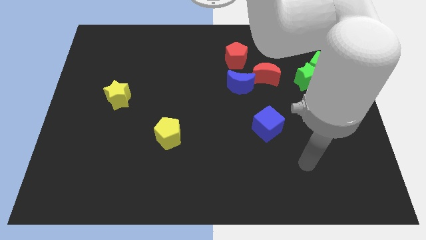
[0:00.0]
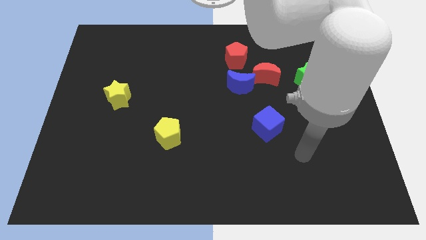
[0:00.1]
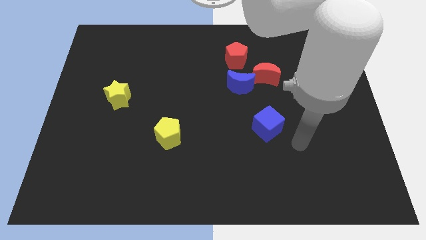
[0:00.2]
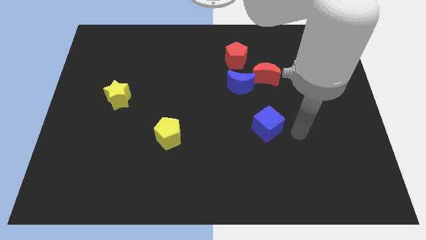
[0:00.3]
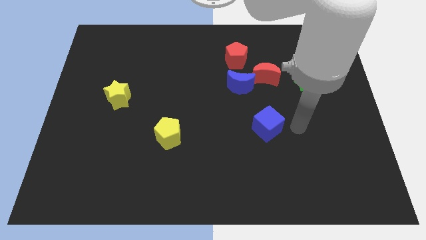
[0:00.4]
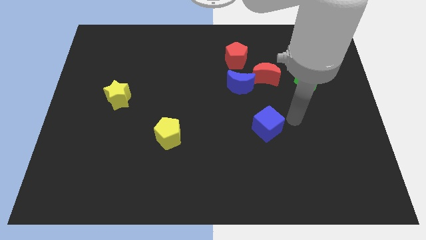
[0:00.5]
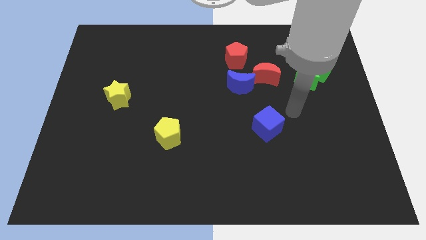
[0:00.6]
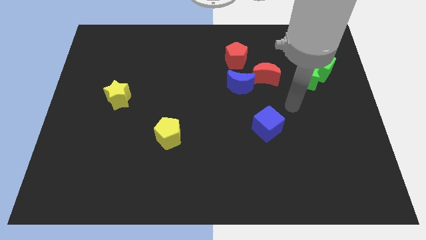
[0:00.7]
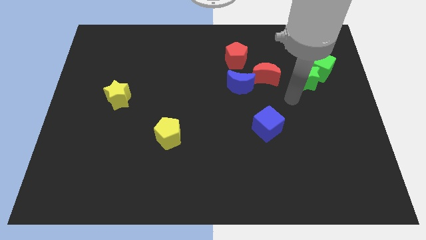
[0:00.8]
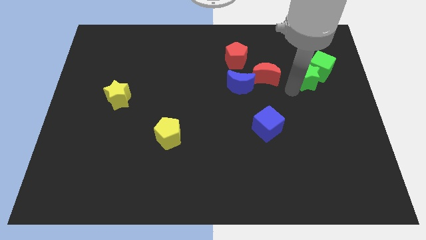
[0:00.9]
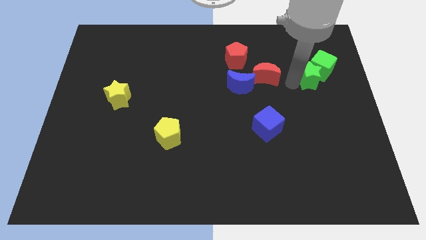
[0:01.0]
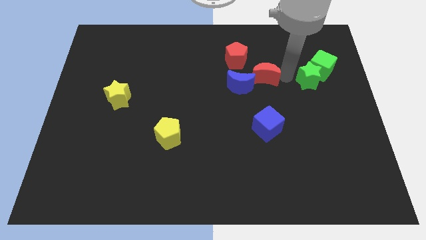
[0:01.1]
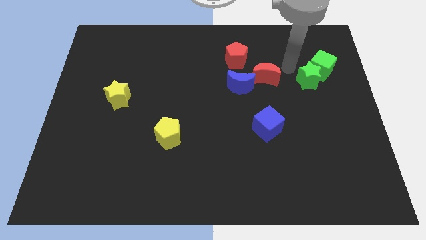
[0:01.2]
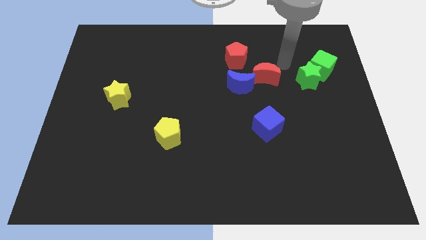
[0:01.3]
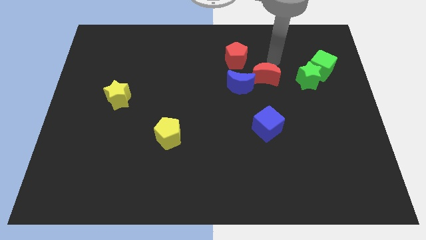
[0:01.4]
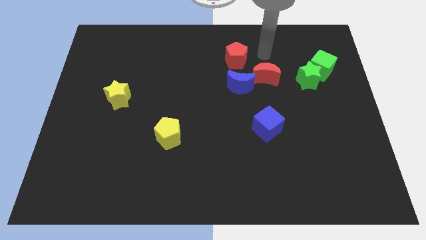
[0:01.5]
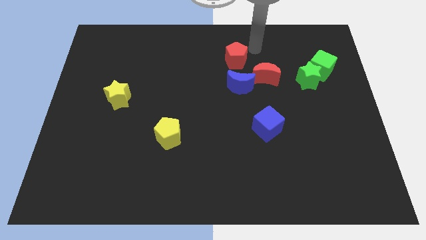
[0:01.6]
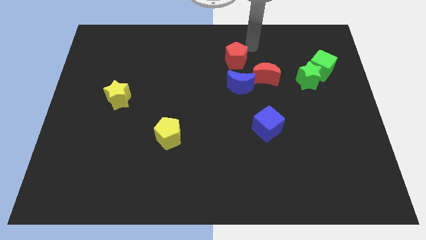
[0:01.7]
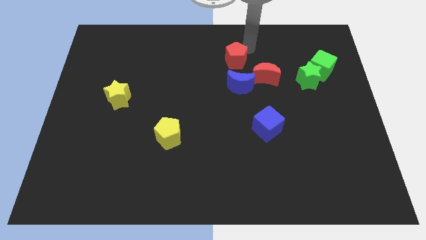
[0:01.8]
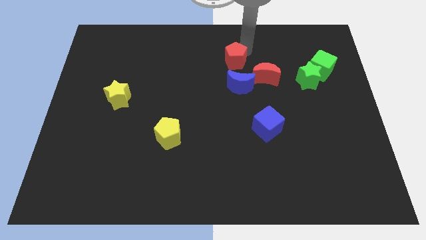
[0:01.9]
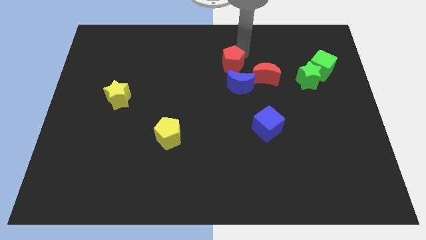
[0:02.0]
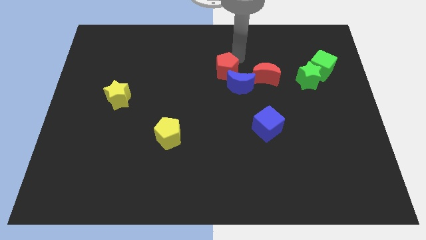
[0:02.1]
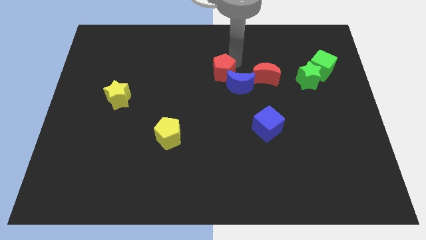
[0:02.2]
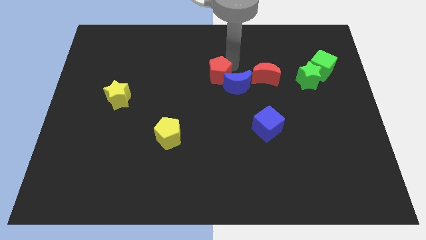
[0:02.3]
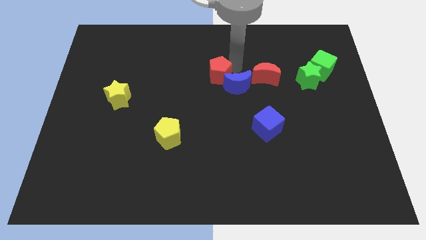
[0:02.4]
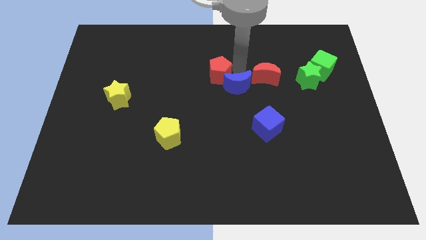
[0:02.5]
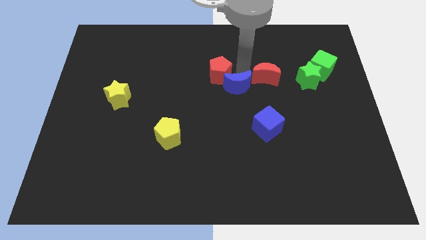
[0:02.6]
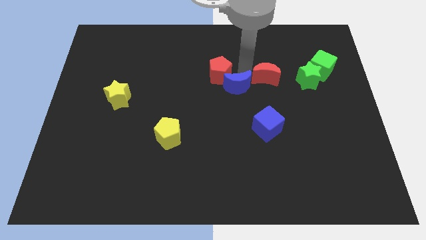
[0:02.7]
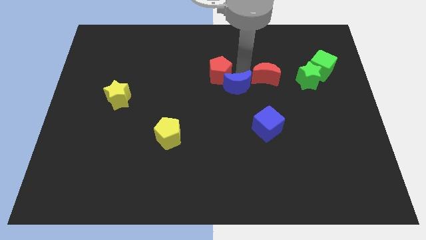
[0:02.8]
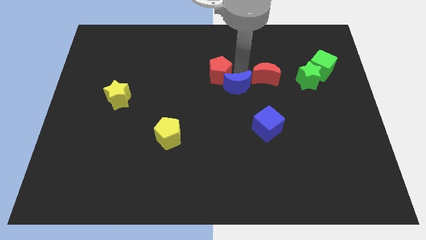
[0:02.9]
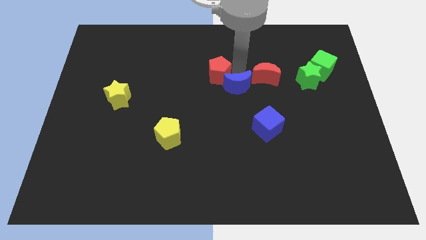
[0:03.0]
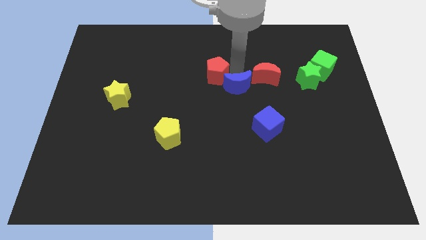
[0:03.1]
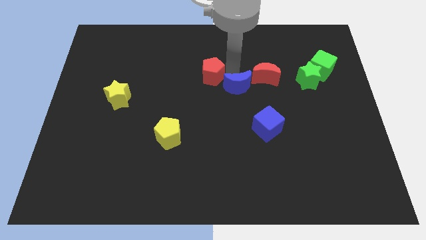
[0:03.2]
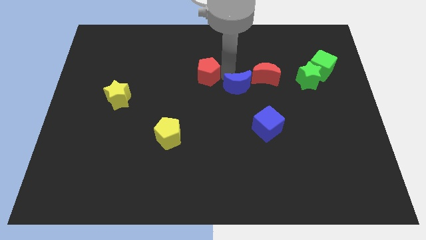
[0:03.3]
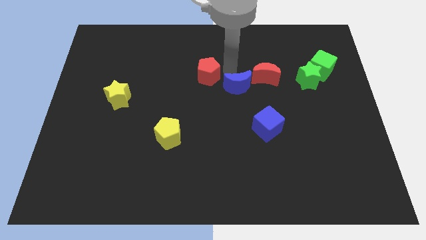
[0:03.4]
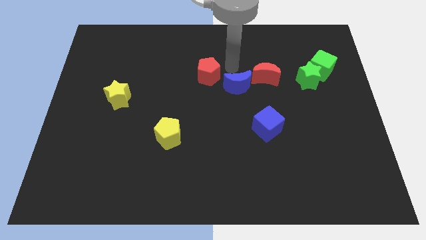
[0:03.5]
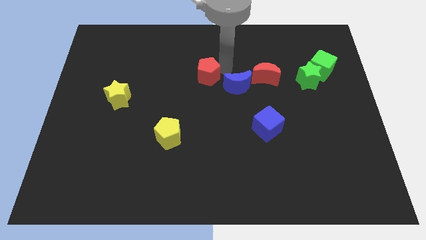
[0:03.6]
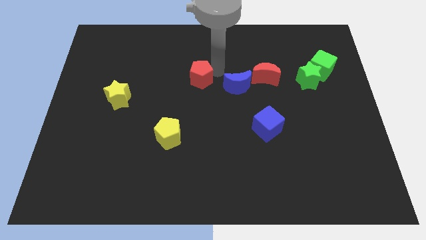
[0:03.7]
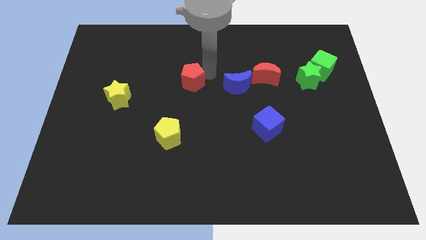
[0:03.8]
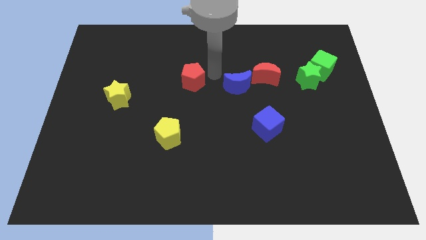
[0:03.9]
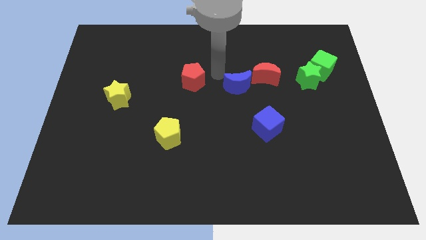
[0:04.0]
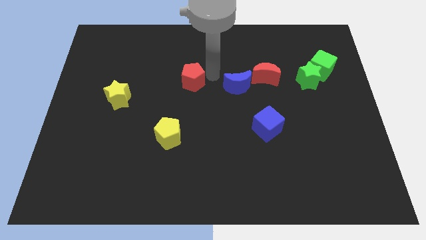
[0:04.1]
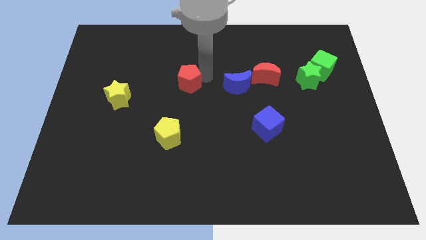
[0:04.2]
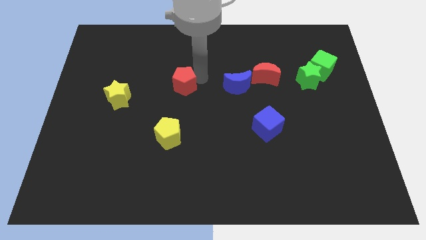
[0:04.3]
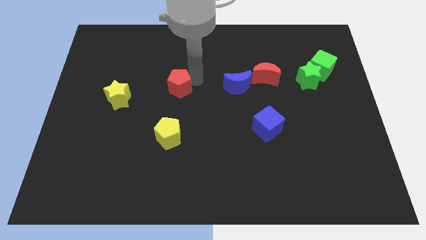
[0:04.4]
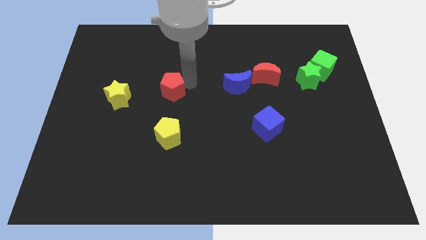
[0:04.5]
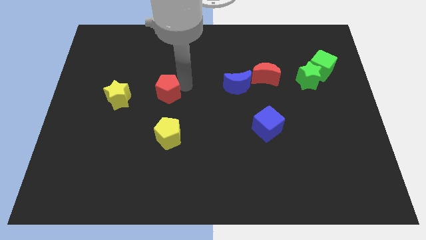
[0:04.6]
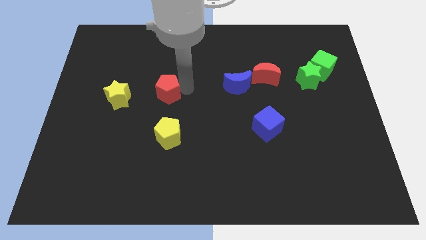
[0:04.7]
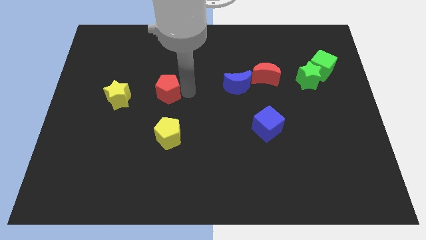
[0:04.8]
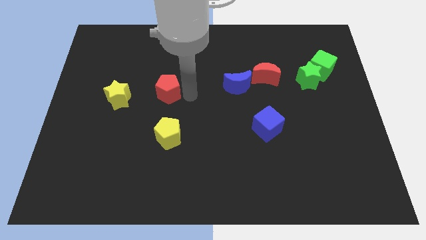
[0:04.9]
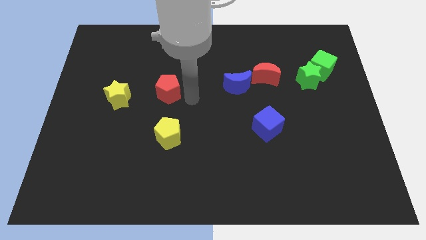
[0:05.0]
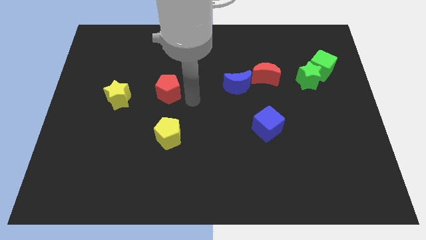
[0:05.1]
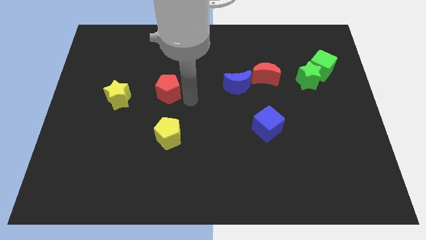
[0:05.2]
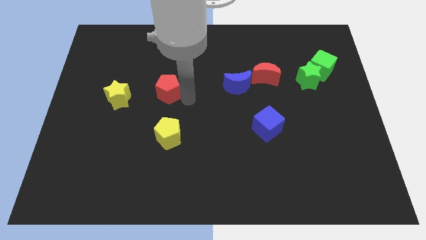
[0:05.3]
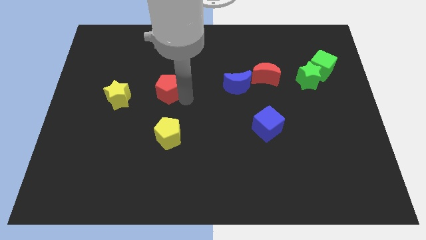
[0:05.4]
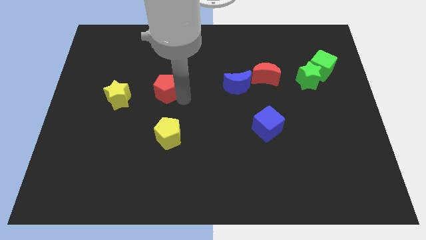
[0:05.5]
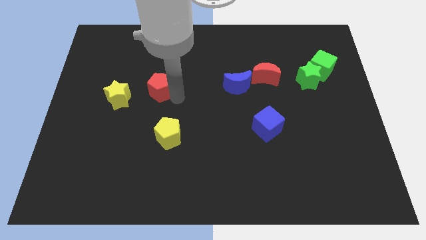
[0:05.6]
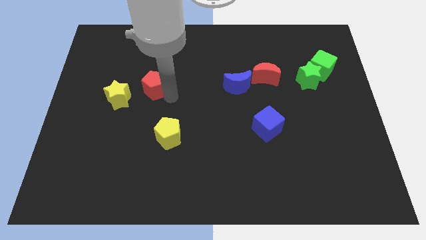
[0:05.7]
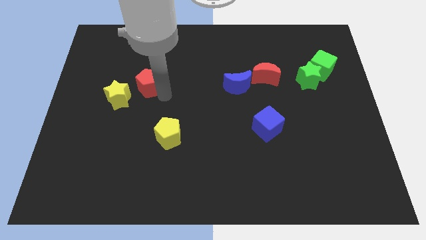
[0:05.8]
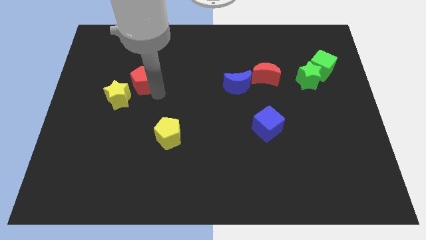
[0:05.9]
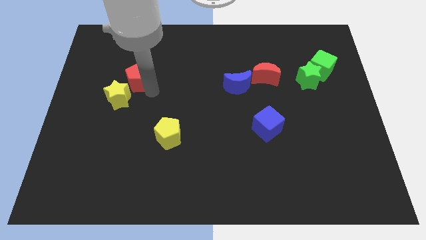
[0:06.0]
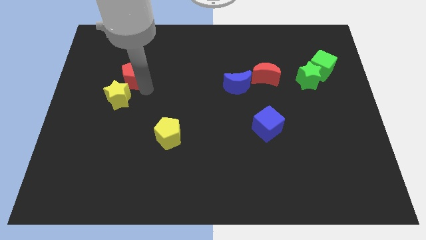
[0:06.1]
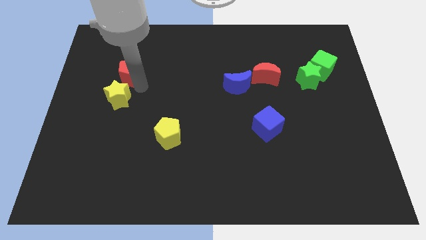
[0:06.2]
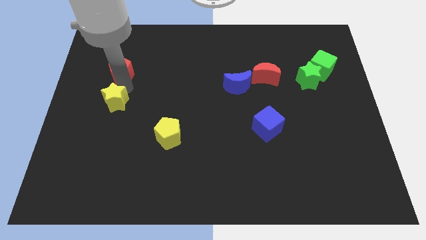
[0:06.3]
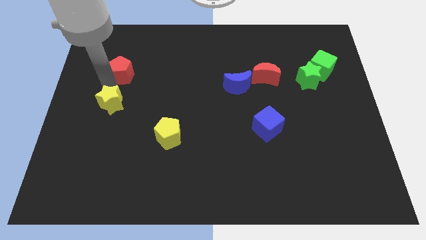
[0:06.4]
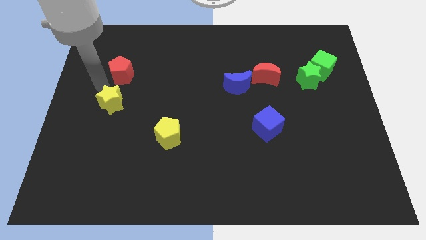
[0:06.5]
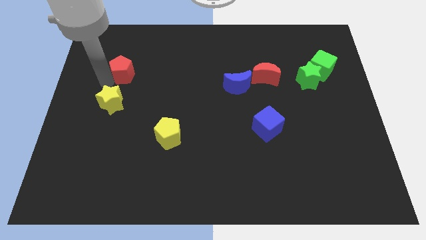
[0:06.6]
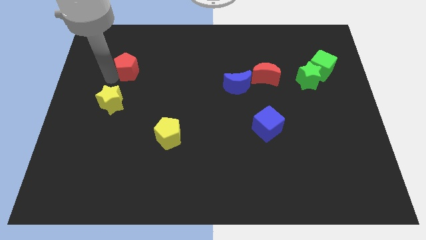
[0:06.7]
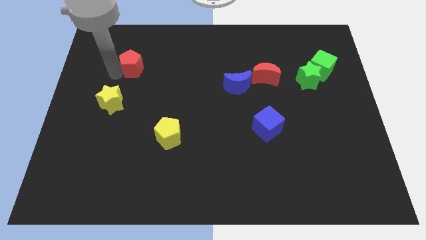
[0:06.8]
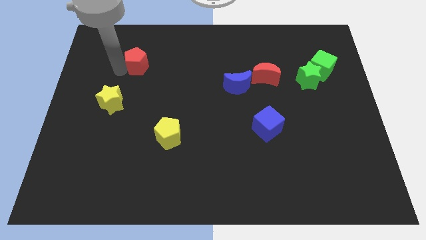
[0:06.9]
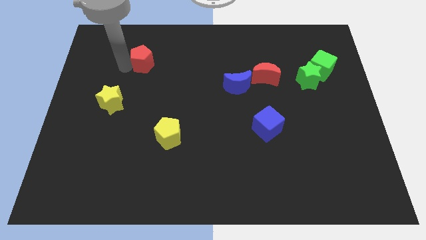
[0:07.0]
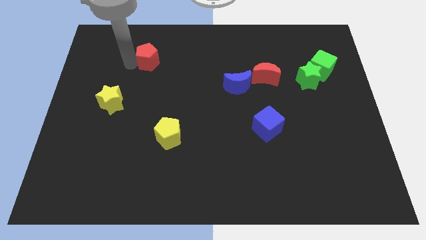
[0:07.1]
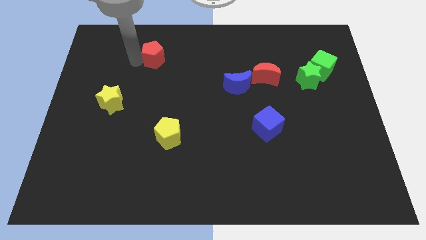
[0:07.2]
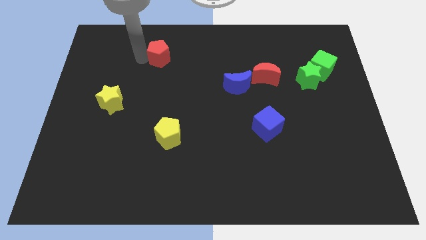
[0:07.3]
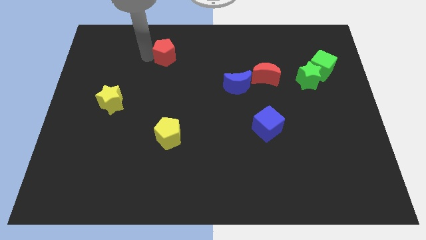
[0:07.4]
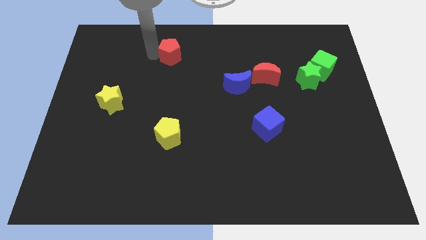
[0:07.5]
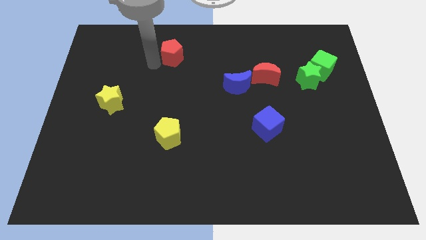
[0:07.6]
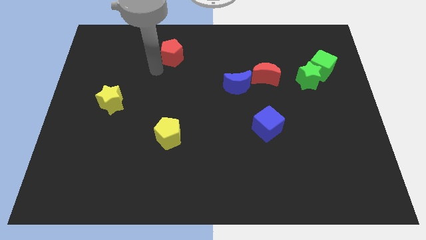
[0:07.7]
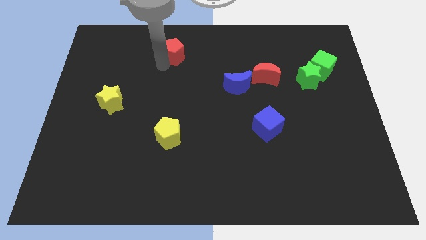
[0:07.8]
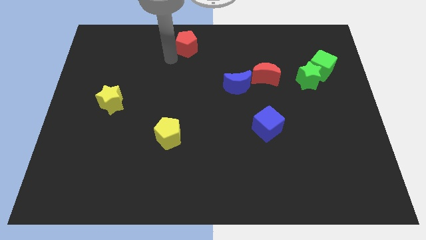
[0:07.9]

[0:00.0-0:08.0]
slide the red pentagon to the top side
